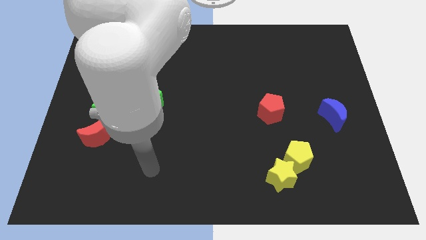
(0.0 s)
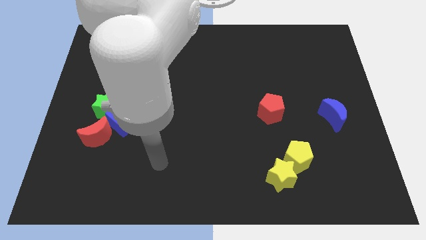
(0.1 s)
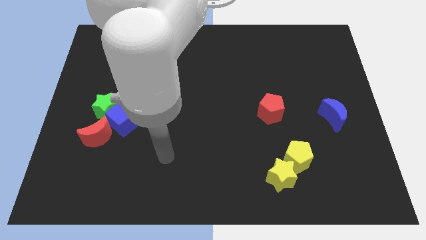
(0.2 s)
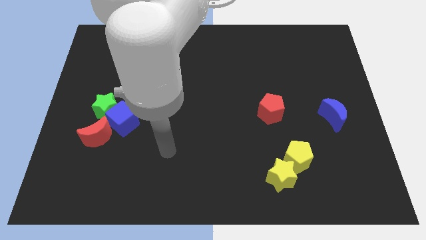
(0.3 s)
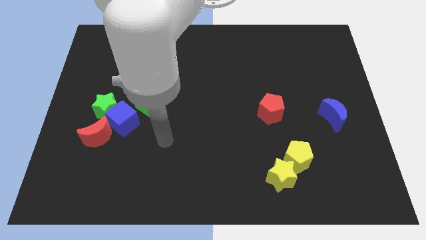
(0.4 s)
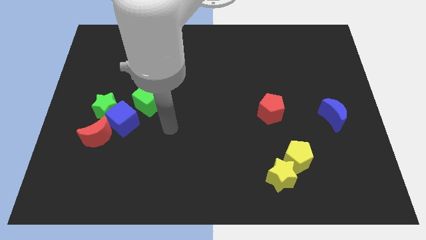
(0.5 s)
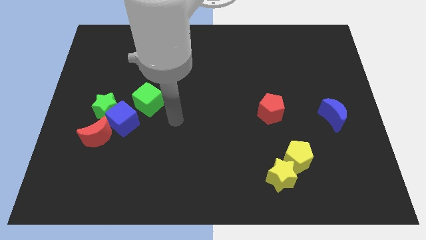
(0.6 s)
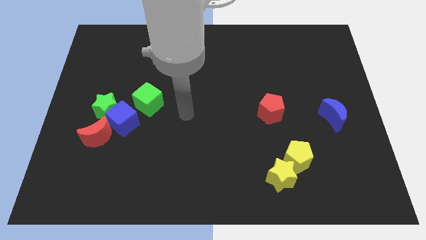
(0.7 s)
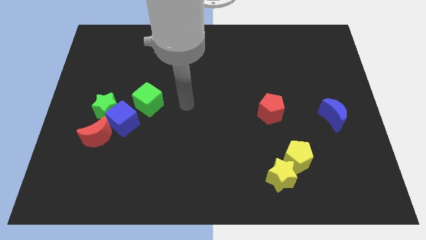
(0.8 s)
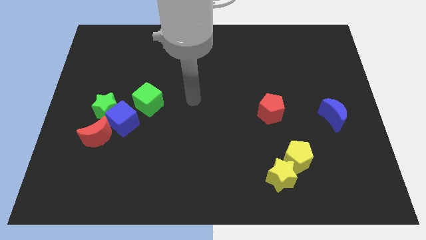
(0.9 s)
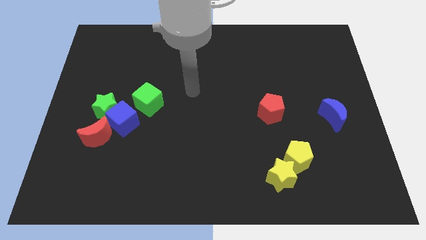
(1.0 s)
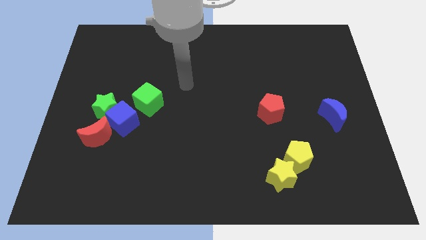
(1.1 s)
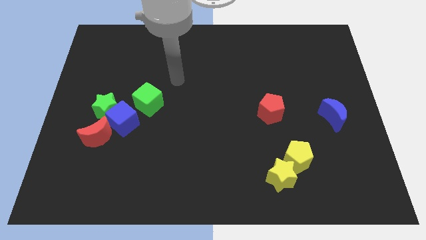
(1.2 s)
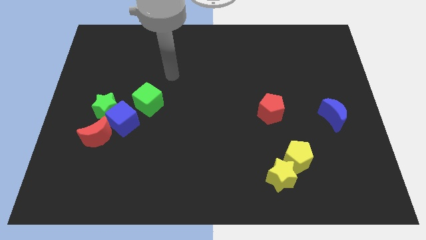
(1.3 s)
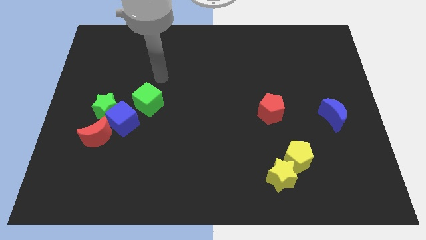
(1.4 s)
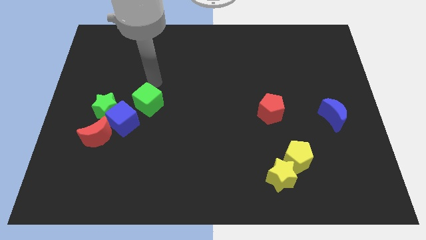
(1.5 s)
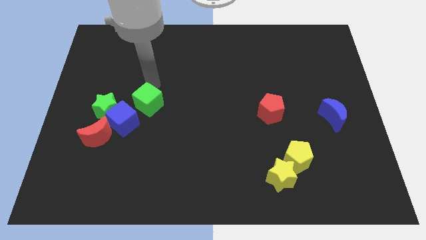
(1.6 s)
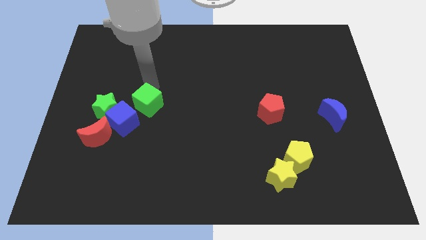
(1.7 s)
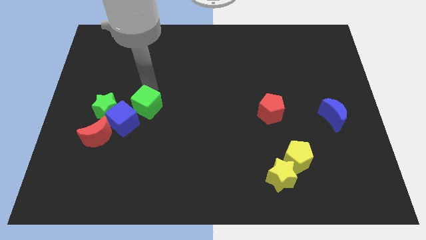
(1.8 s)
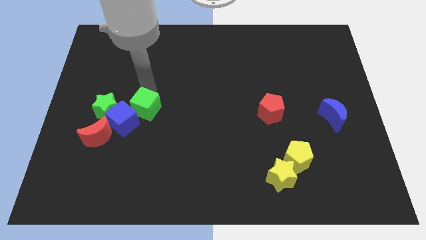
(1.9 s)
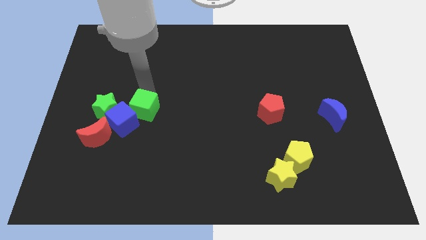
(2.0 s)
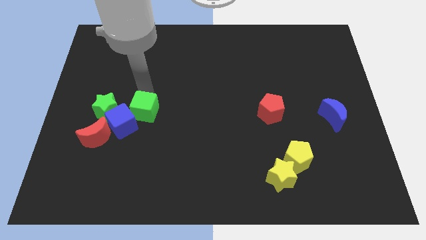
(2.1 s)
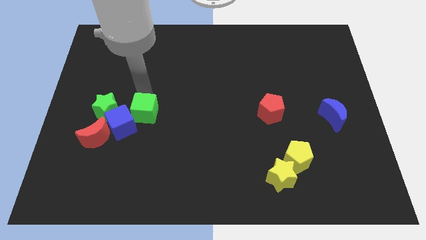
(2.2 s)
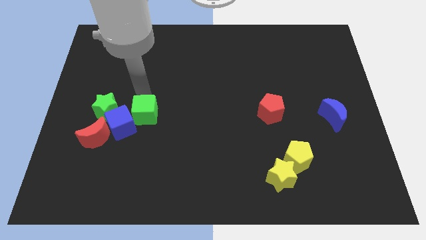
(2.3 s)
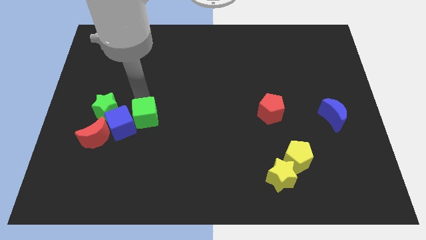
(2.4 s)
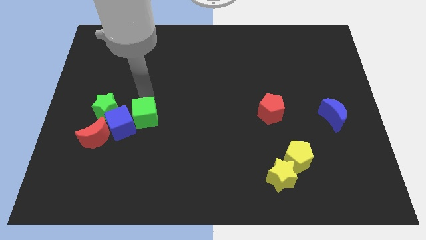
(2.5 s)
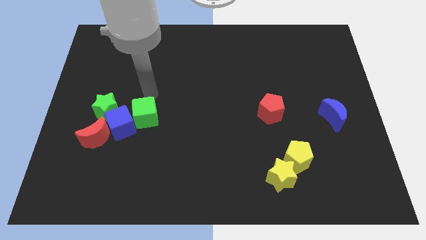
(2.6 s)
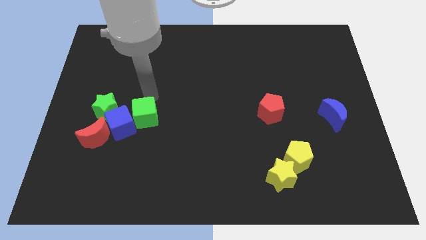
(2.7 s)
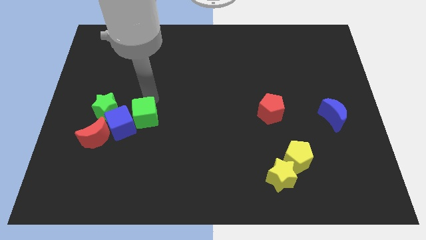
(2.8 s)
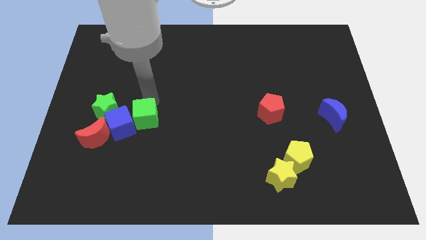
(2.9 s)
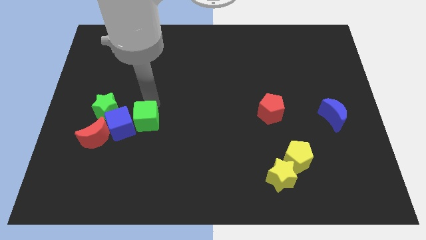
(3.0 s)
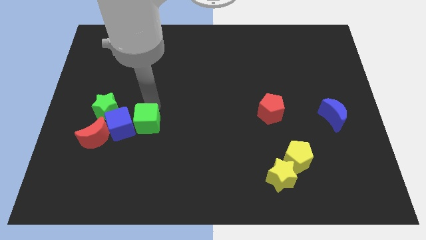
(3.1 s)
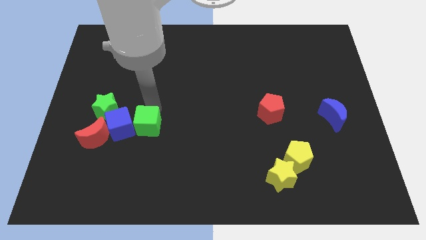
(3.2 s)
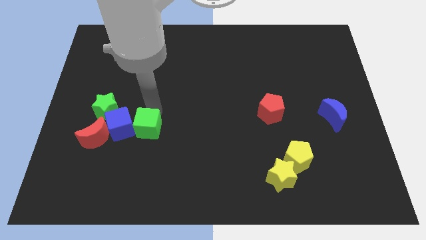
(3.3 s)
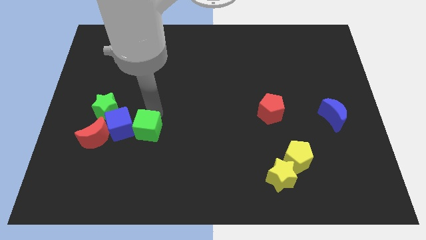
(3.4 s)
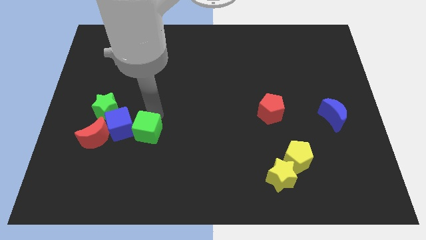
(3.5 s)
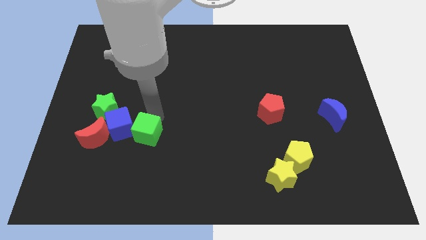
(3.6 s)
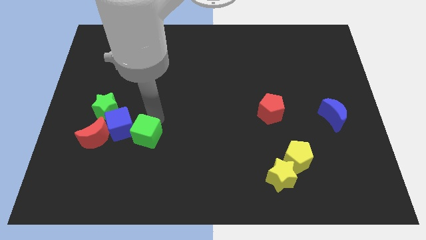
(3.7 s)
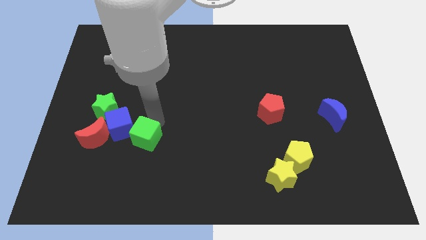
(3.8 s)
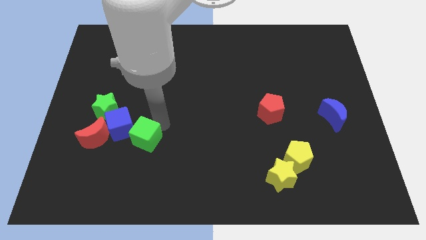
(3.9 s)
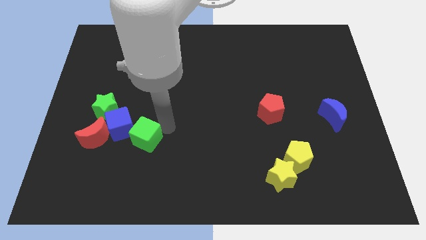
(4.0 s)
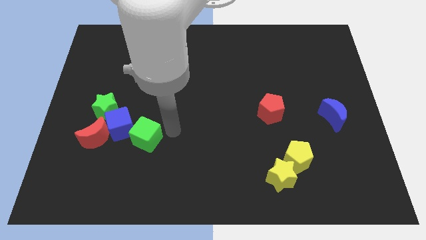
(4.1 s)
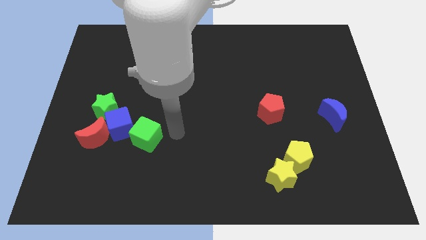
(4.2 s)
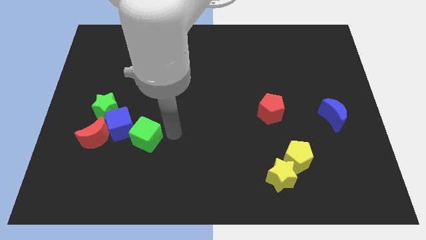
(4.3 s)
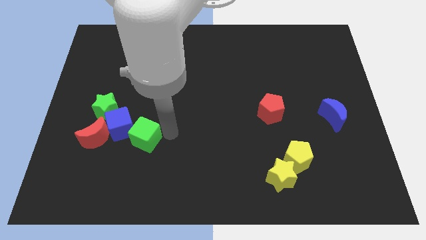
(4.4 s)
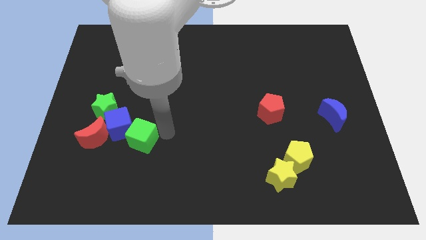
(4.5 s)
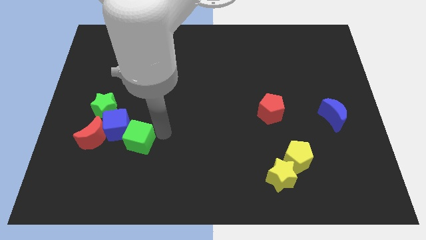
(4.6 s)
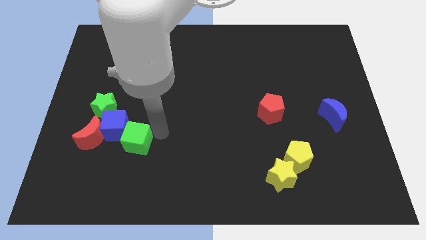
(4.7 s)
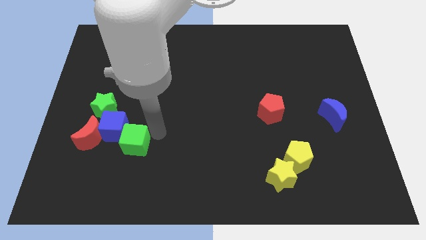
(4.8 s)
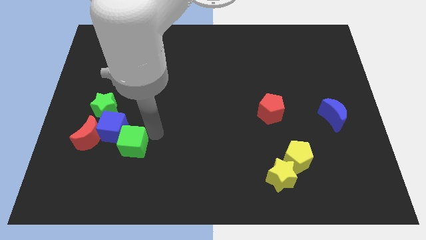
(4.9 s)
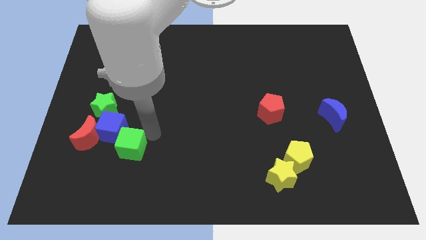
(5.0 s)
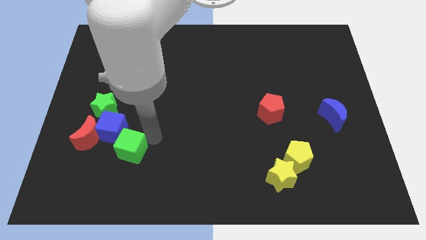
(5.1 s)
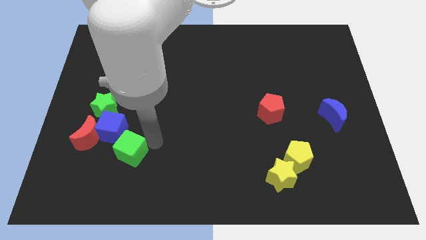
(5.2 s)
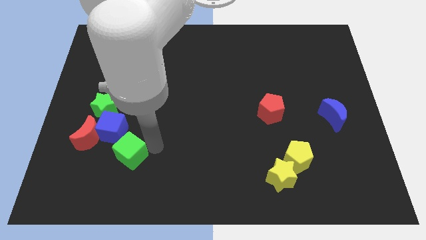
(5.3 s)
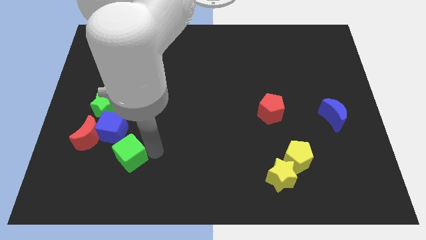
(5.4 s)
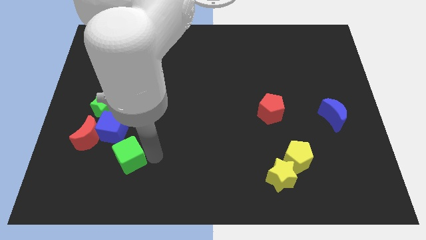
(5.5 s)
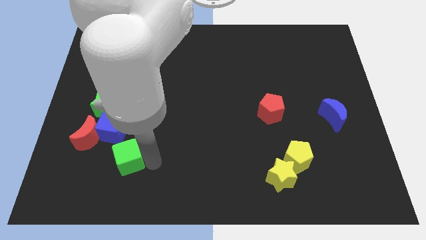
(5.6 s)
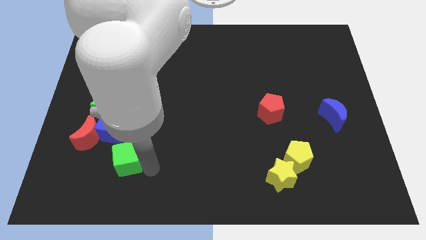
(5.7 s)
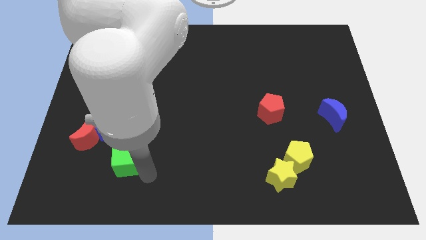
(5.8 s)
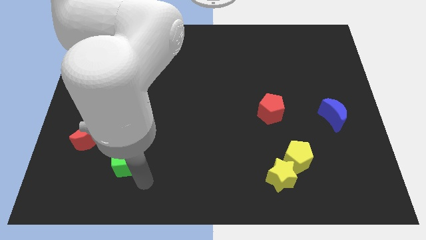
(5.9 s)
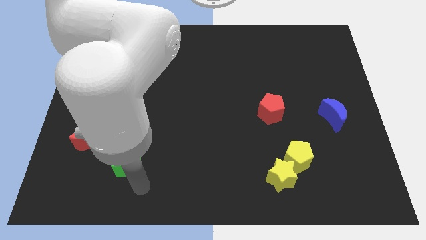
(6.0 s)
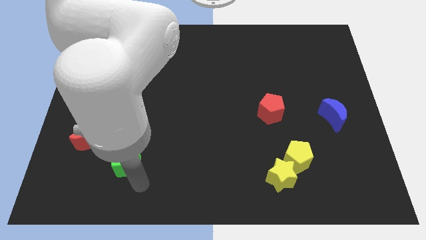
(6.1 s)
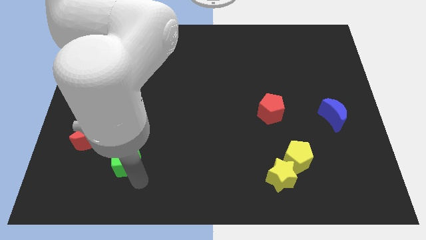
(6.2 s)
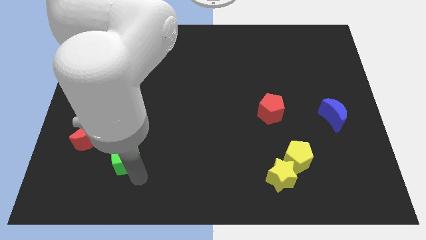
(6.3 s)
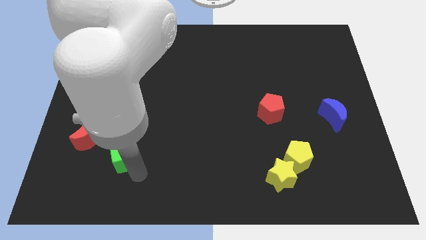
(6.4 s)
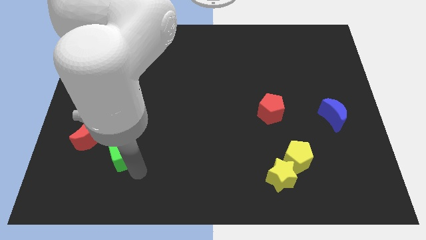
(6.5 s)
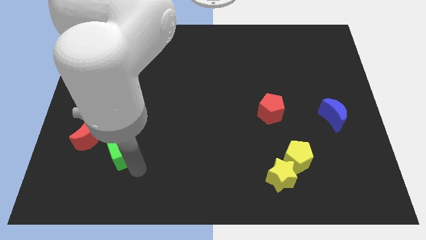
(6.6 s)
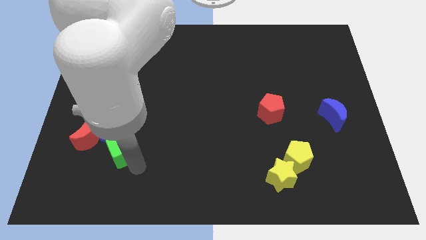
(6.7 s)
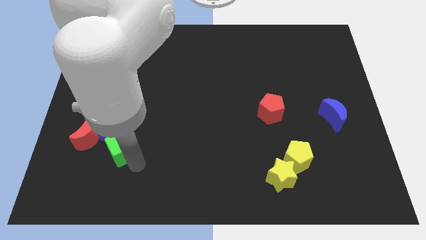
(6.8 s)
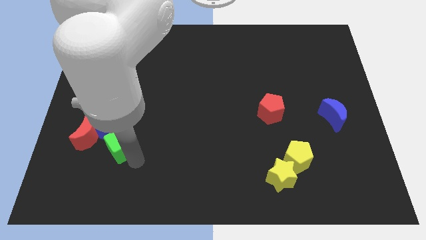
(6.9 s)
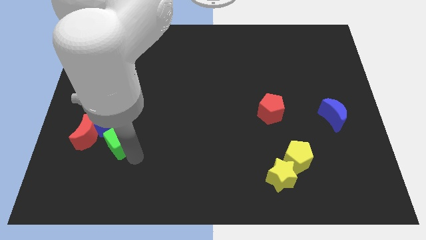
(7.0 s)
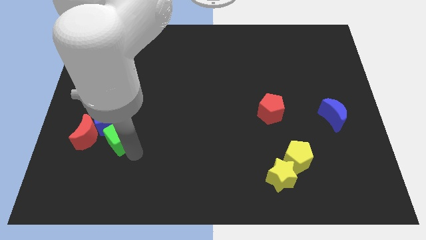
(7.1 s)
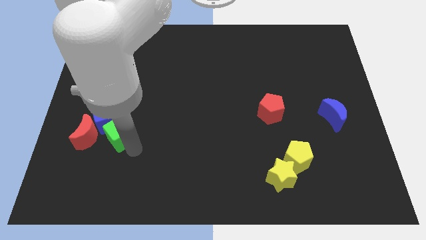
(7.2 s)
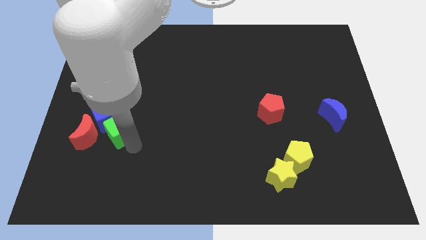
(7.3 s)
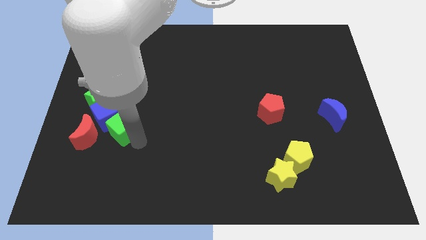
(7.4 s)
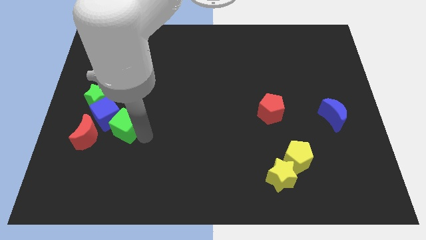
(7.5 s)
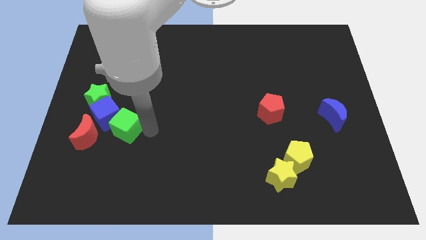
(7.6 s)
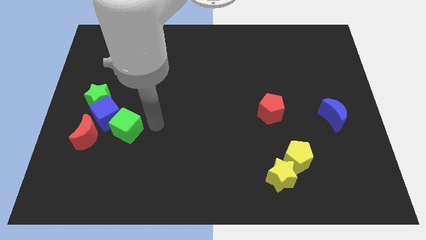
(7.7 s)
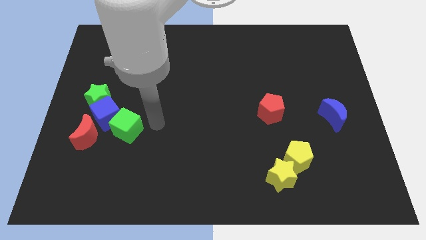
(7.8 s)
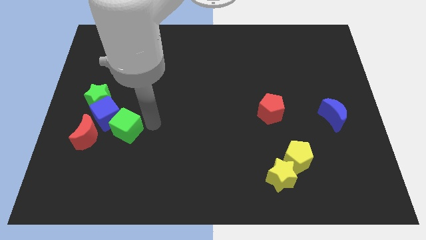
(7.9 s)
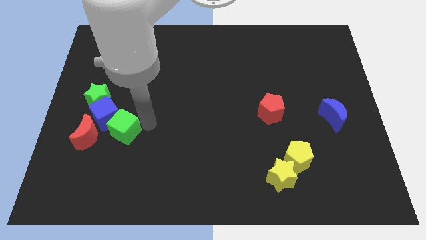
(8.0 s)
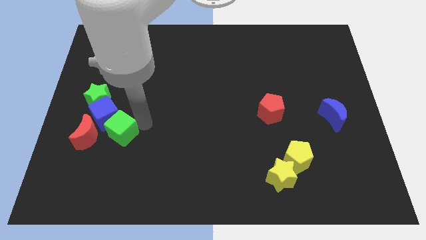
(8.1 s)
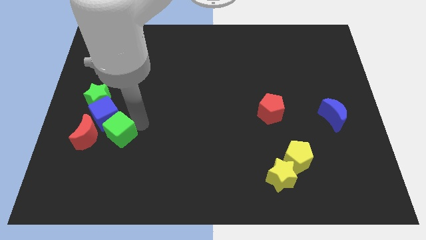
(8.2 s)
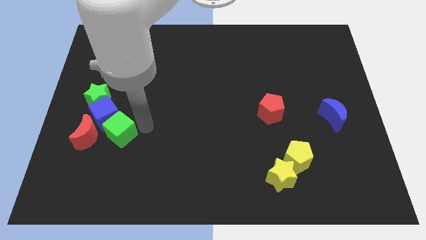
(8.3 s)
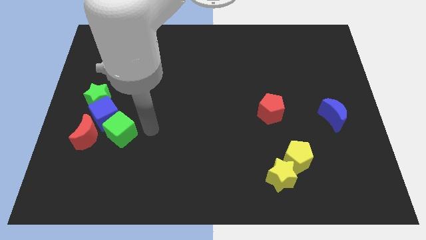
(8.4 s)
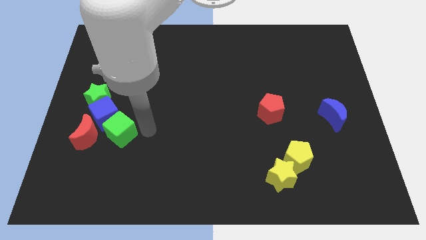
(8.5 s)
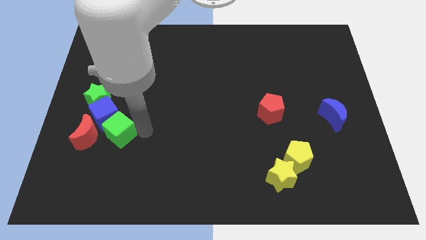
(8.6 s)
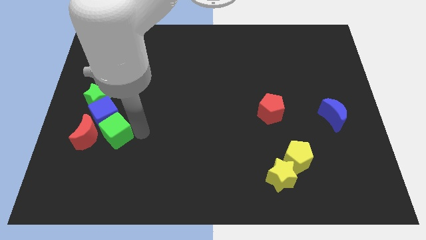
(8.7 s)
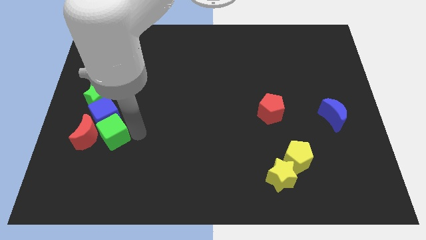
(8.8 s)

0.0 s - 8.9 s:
slide the green cube towards the red moon
